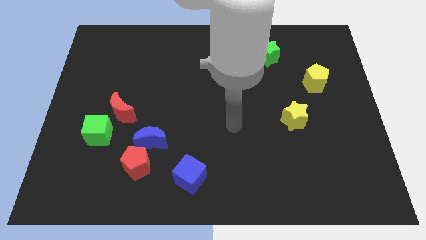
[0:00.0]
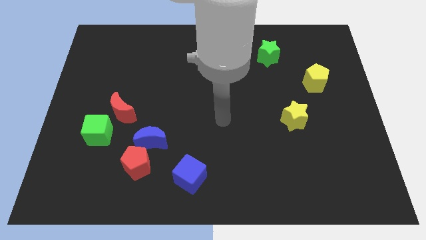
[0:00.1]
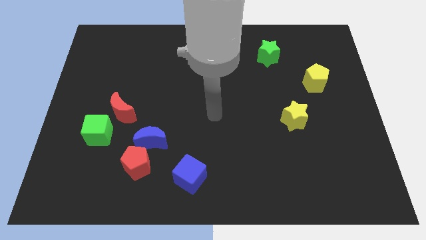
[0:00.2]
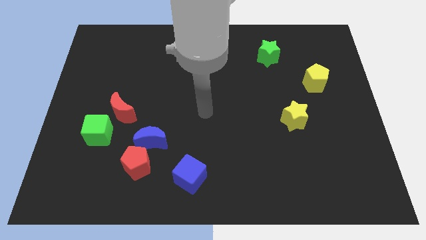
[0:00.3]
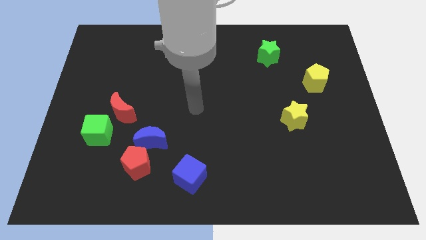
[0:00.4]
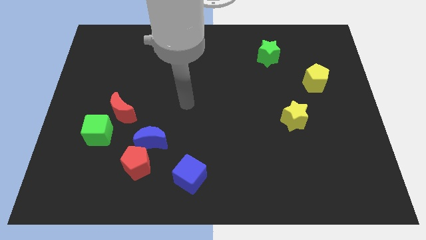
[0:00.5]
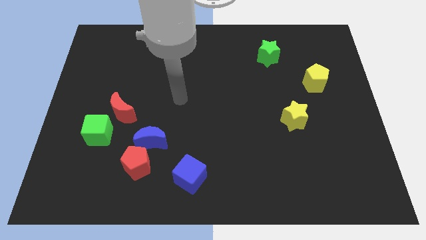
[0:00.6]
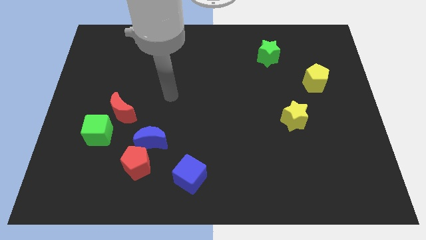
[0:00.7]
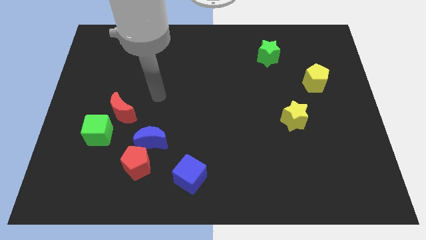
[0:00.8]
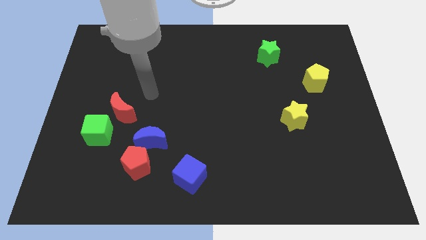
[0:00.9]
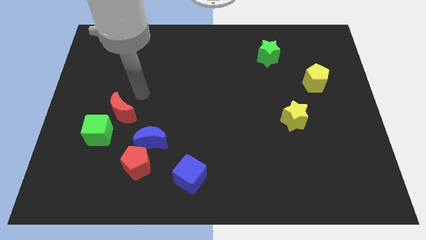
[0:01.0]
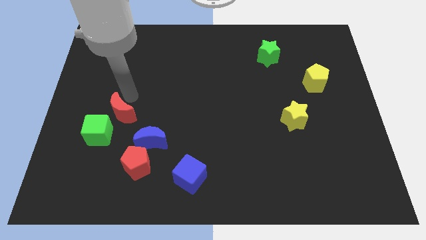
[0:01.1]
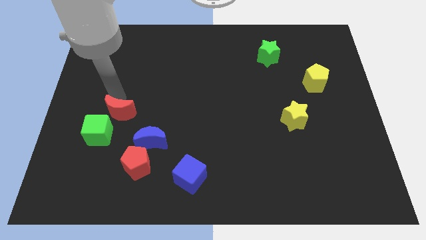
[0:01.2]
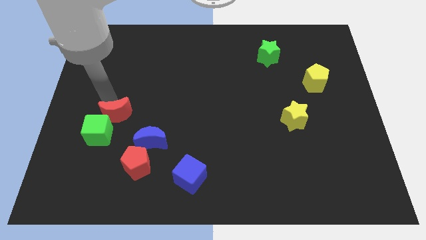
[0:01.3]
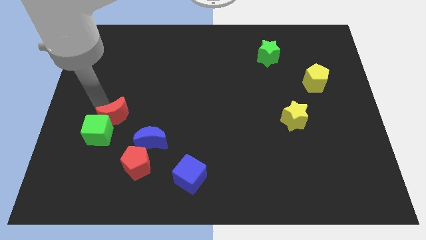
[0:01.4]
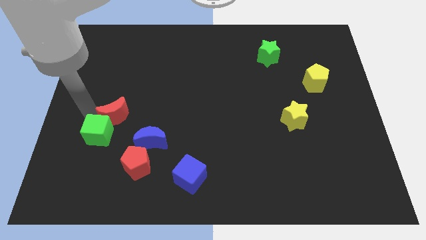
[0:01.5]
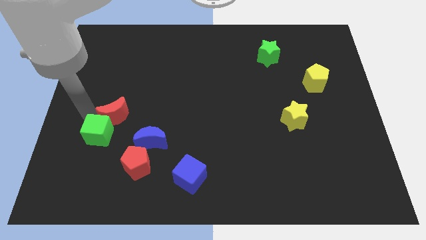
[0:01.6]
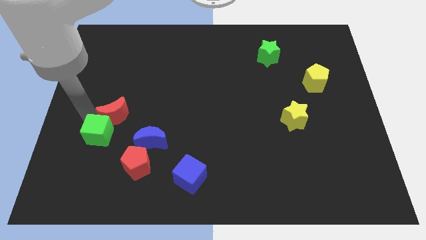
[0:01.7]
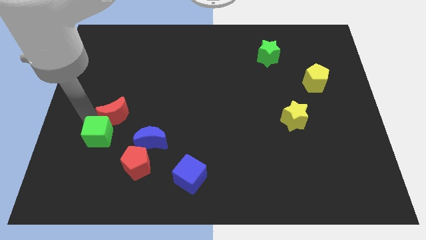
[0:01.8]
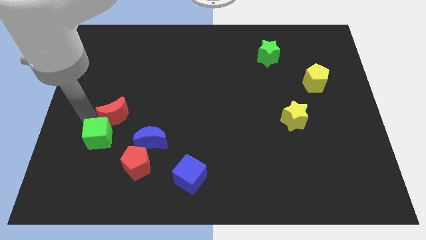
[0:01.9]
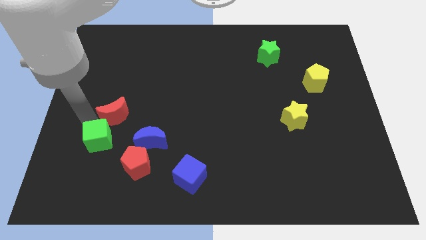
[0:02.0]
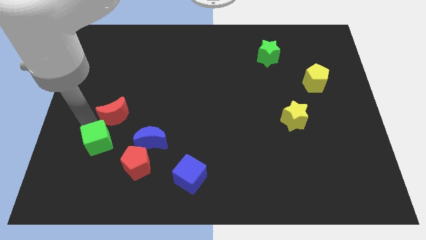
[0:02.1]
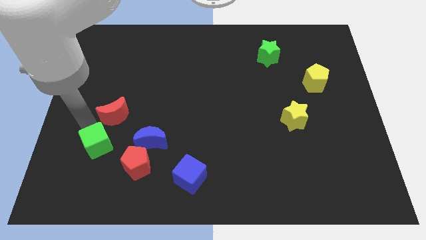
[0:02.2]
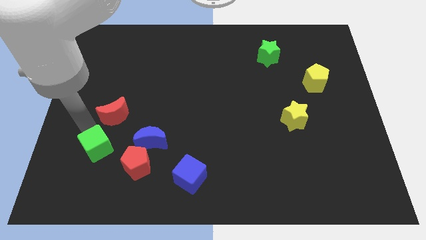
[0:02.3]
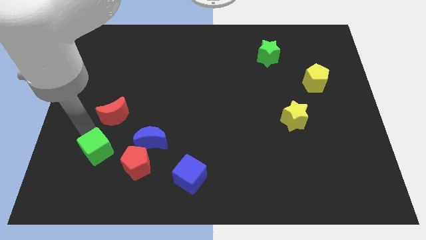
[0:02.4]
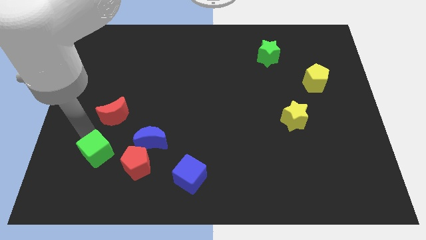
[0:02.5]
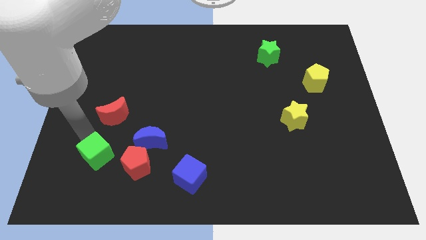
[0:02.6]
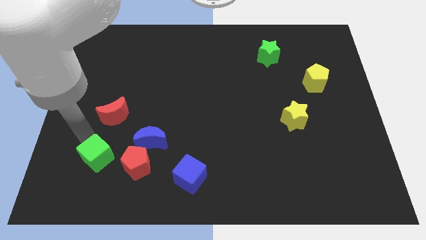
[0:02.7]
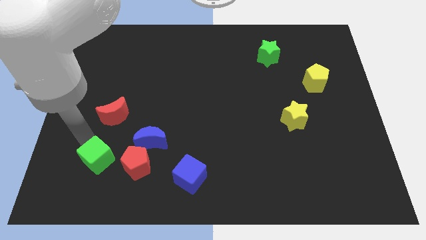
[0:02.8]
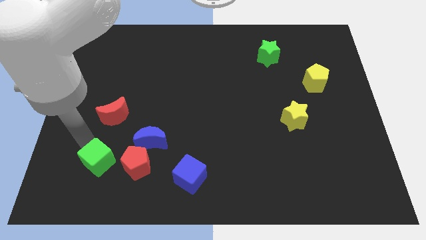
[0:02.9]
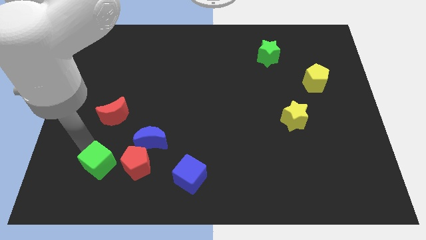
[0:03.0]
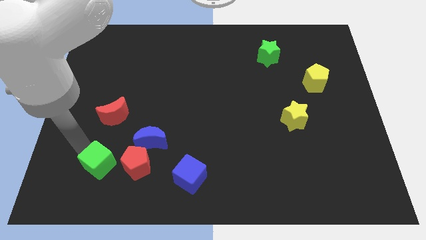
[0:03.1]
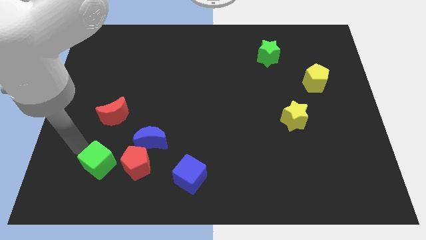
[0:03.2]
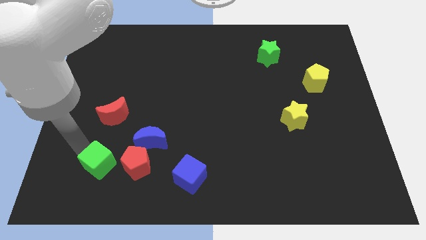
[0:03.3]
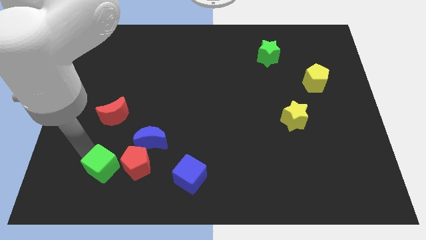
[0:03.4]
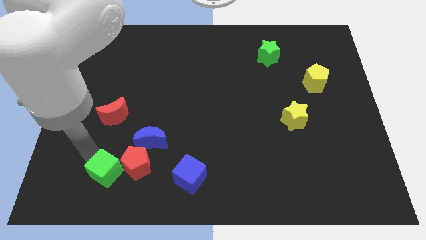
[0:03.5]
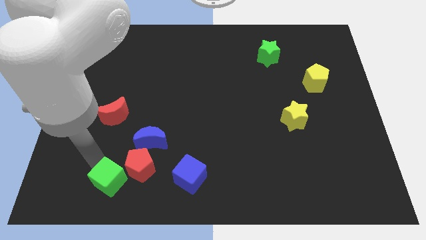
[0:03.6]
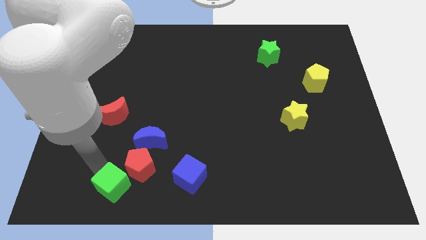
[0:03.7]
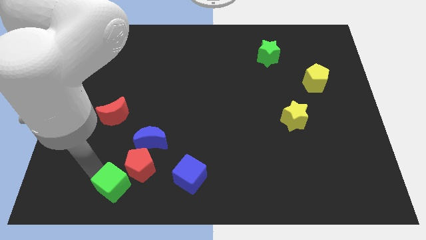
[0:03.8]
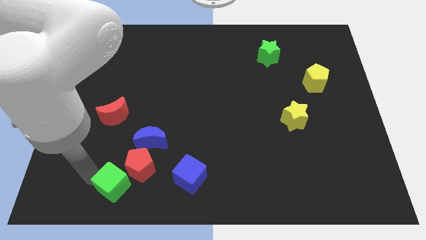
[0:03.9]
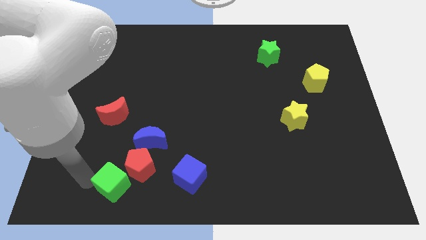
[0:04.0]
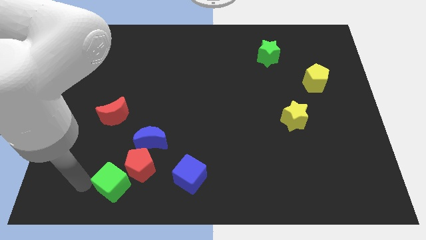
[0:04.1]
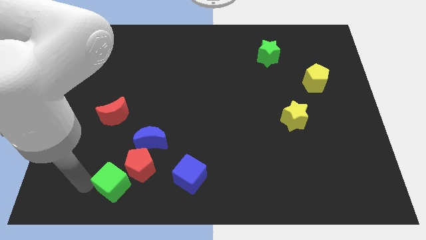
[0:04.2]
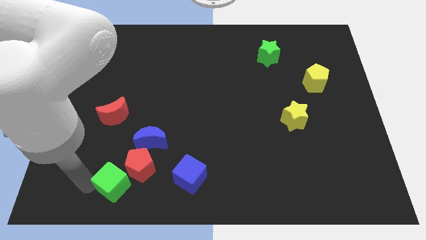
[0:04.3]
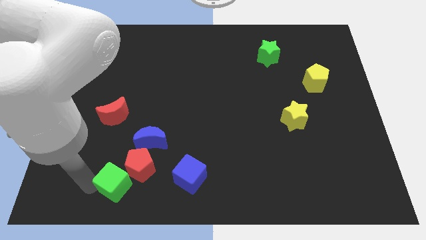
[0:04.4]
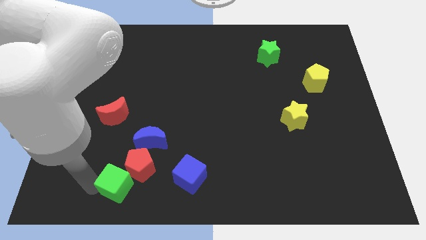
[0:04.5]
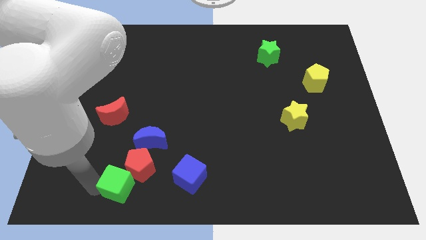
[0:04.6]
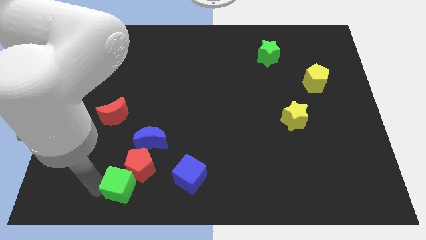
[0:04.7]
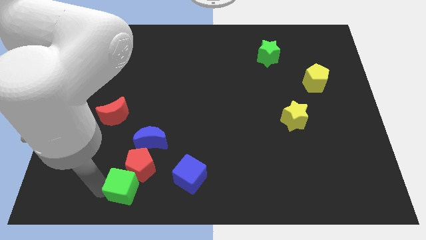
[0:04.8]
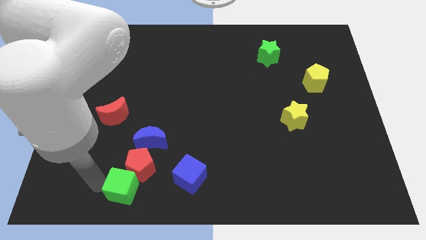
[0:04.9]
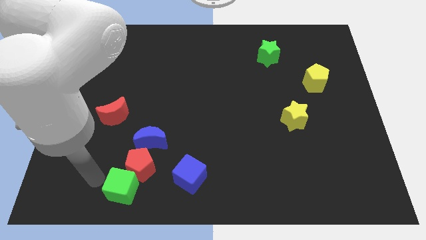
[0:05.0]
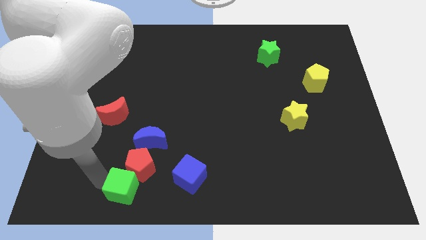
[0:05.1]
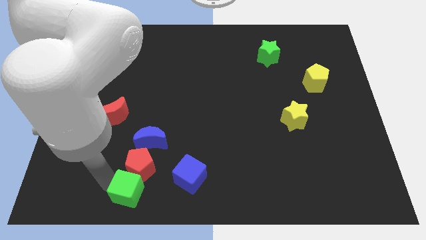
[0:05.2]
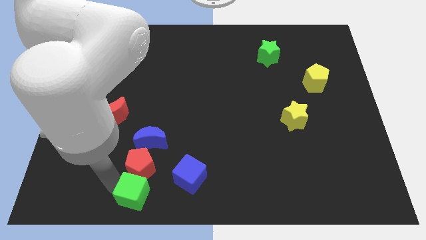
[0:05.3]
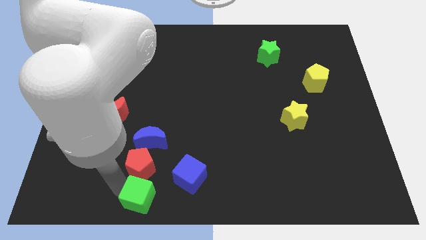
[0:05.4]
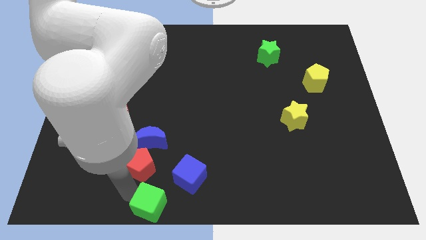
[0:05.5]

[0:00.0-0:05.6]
put the green cube to the bottom side

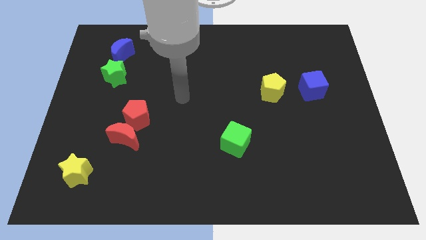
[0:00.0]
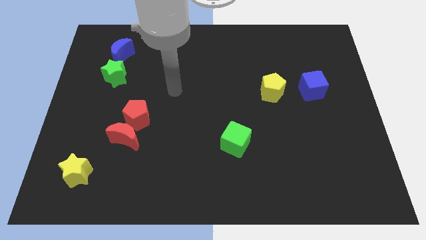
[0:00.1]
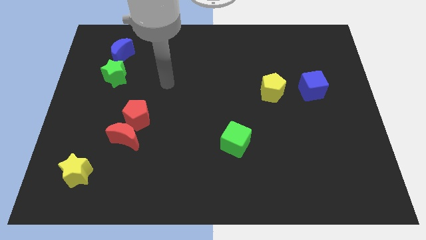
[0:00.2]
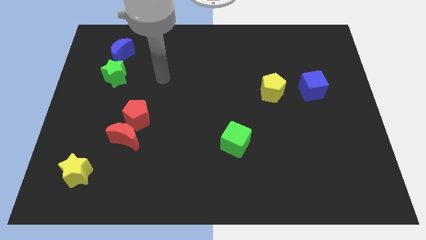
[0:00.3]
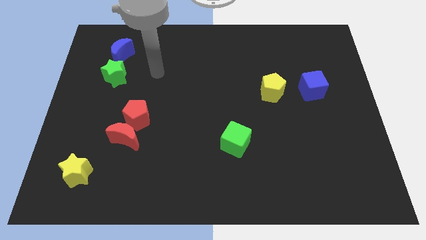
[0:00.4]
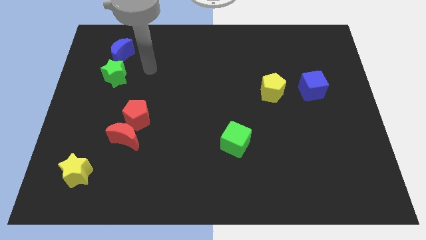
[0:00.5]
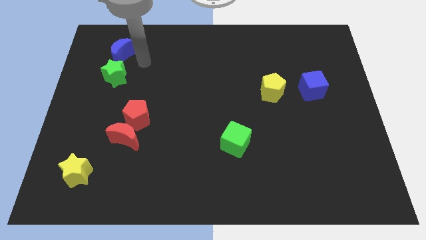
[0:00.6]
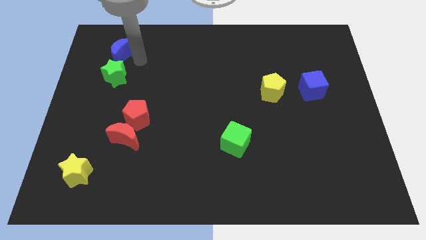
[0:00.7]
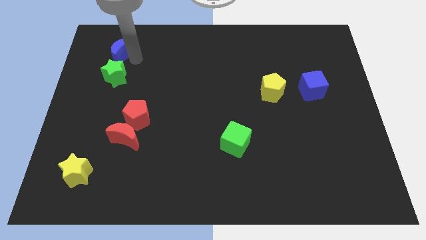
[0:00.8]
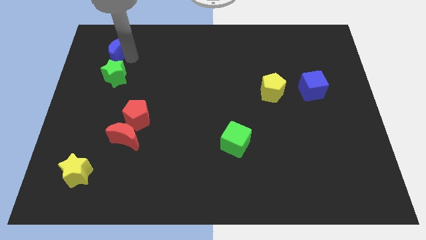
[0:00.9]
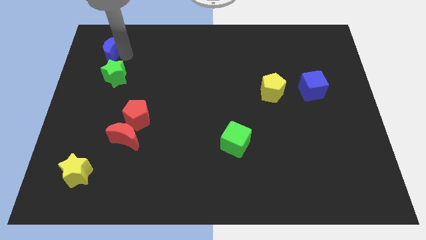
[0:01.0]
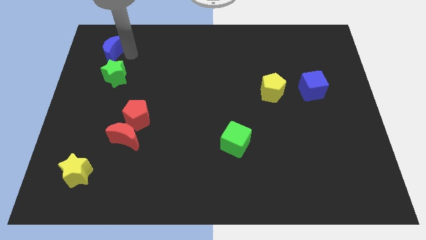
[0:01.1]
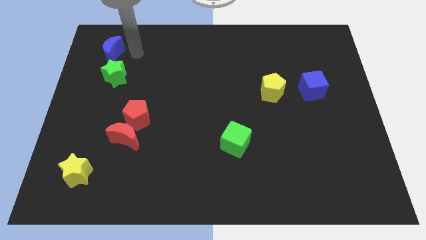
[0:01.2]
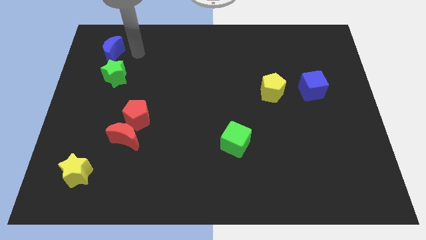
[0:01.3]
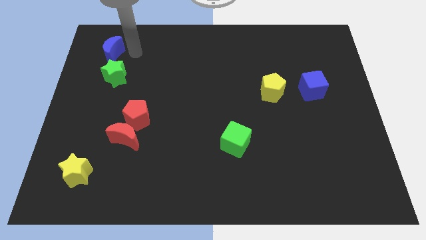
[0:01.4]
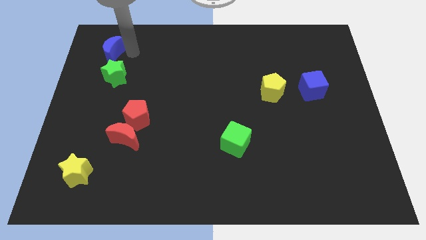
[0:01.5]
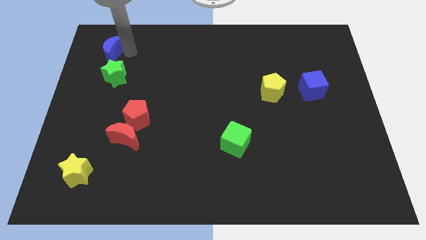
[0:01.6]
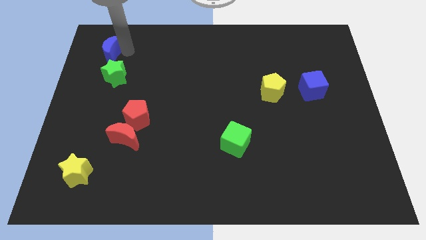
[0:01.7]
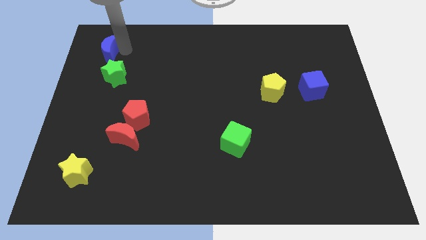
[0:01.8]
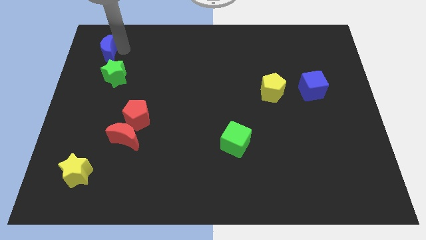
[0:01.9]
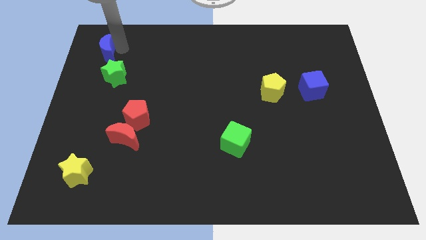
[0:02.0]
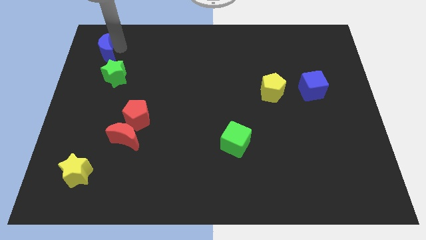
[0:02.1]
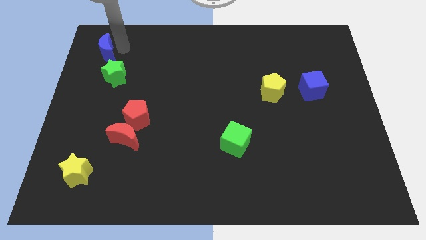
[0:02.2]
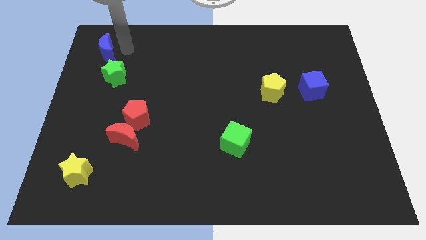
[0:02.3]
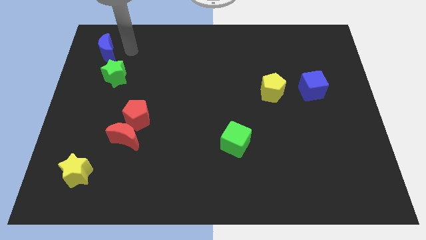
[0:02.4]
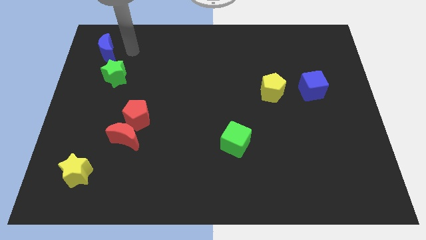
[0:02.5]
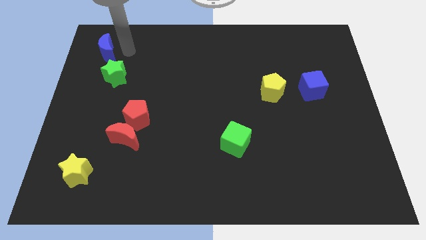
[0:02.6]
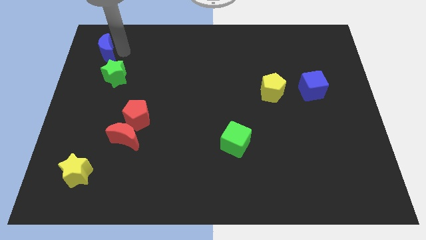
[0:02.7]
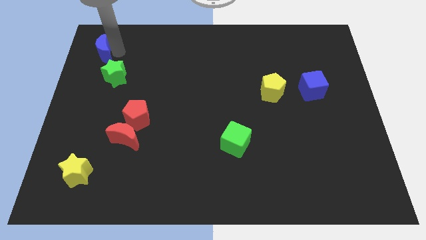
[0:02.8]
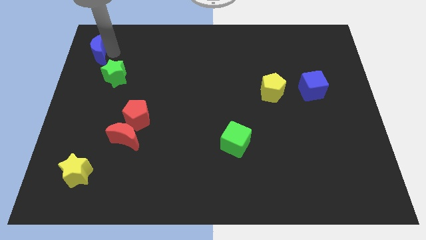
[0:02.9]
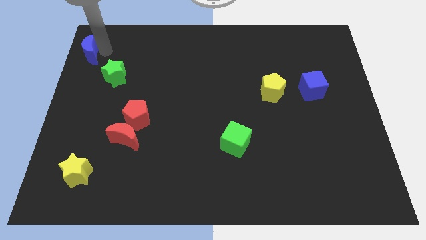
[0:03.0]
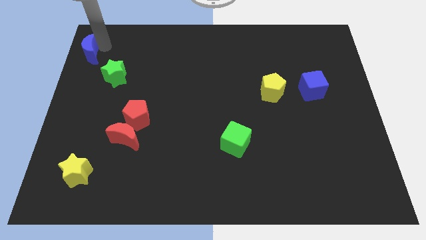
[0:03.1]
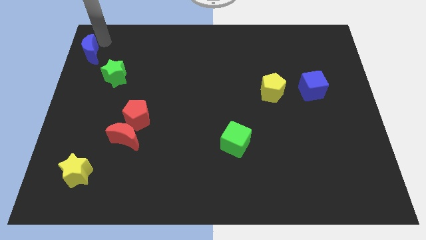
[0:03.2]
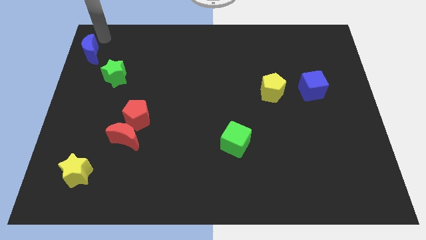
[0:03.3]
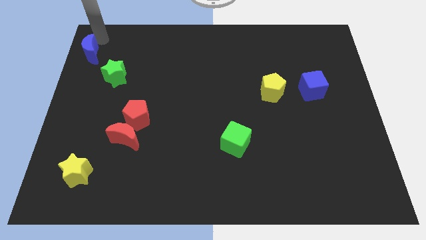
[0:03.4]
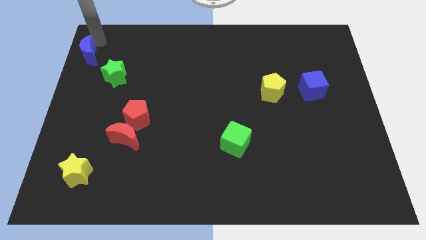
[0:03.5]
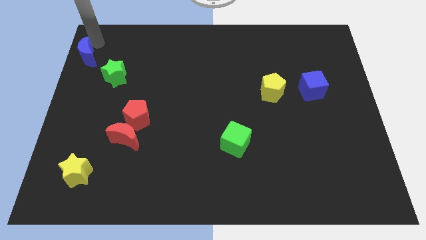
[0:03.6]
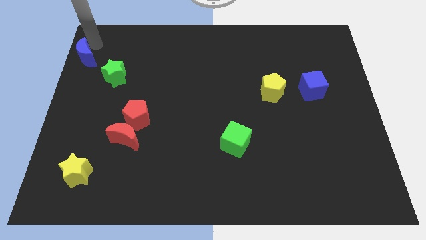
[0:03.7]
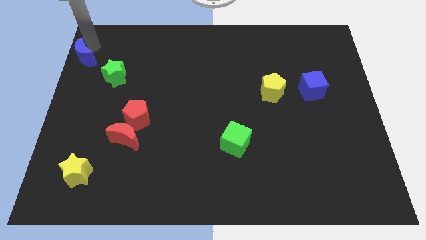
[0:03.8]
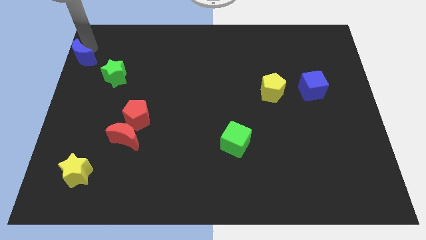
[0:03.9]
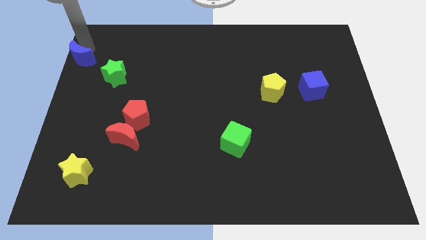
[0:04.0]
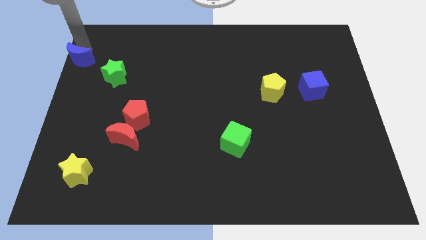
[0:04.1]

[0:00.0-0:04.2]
move the blue moon to the left side
